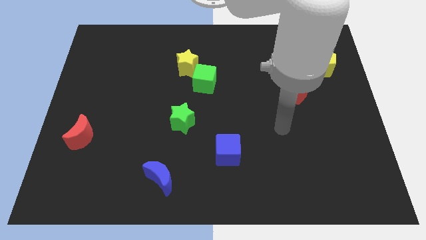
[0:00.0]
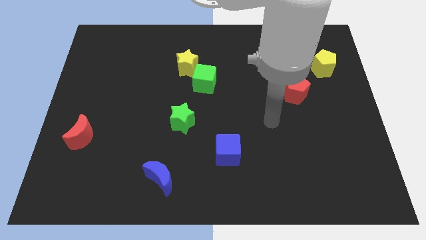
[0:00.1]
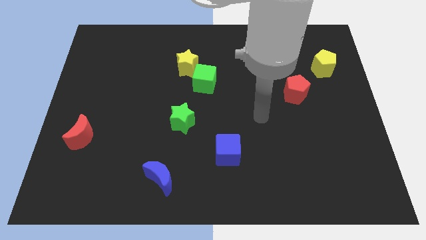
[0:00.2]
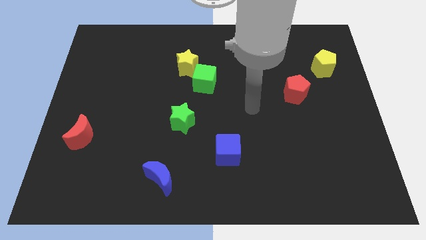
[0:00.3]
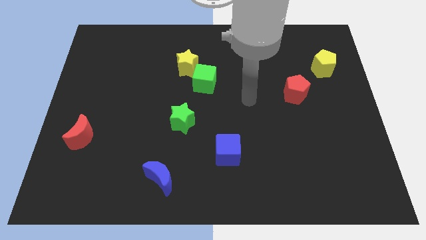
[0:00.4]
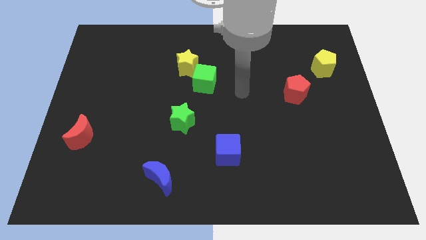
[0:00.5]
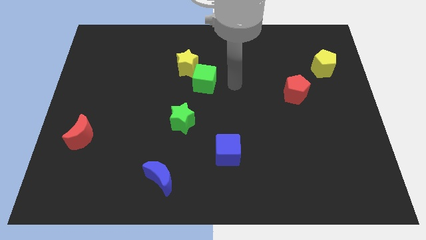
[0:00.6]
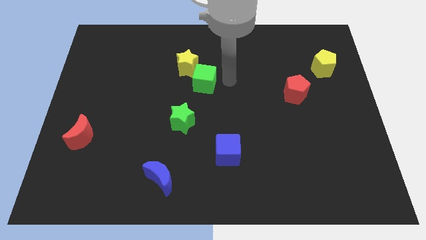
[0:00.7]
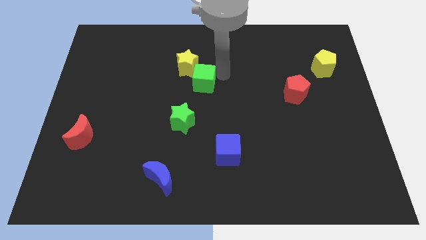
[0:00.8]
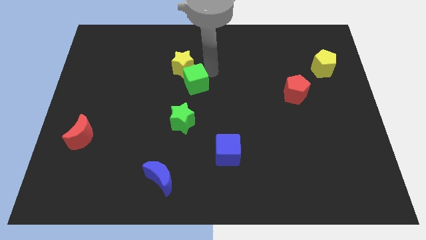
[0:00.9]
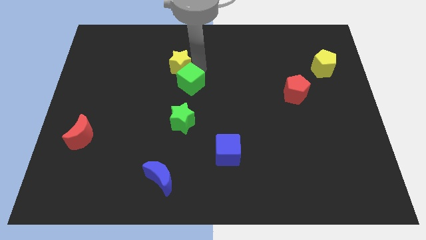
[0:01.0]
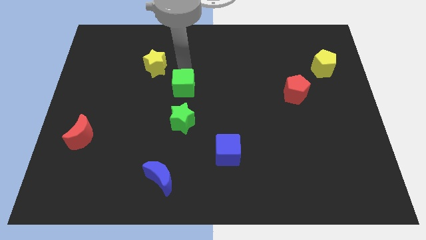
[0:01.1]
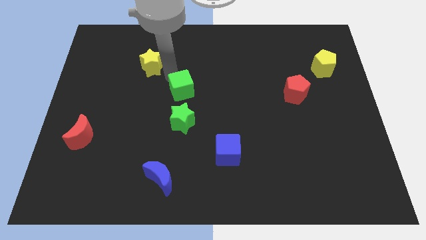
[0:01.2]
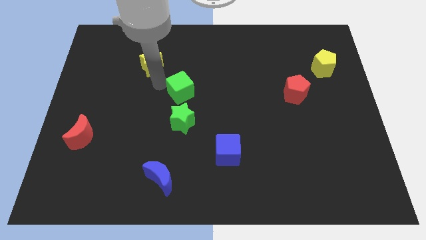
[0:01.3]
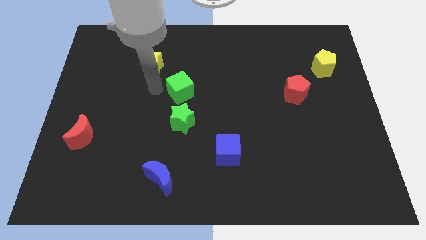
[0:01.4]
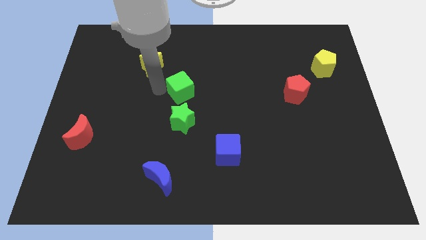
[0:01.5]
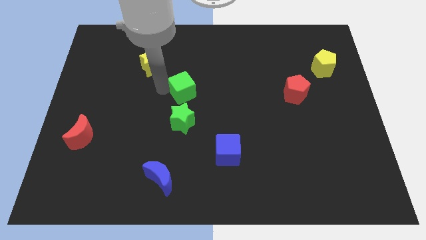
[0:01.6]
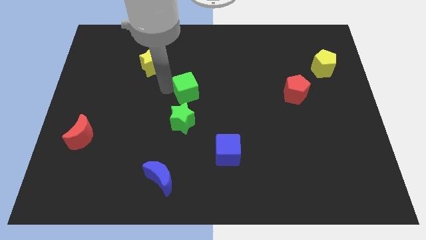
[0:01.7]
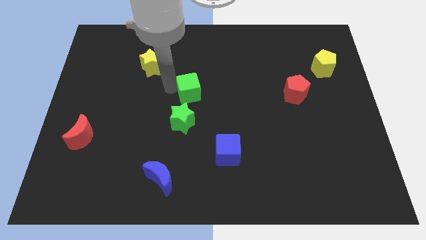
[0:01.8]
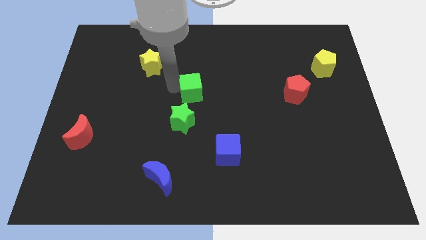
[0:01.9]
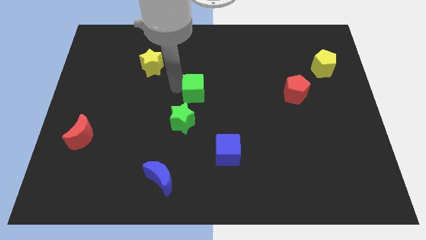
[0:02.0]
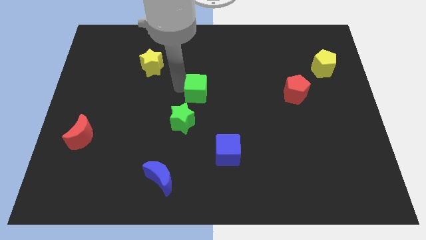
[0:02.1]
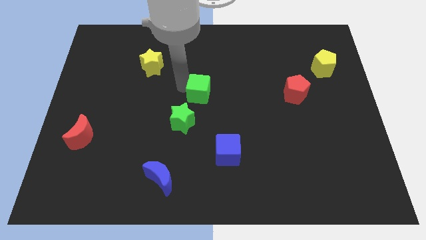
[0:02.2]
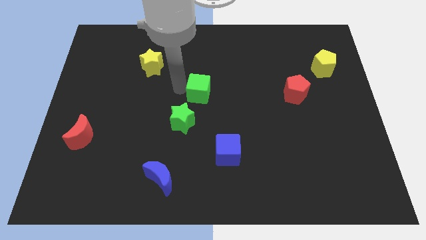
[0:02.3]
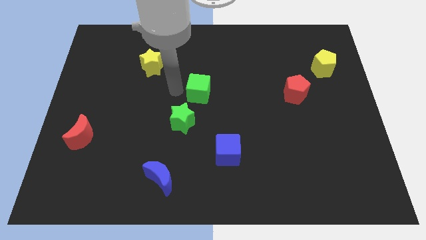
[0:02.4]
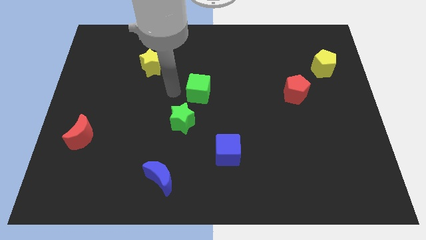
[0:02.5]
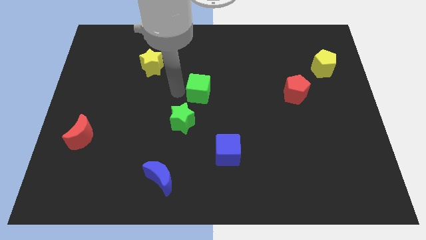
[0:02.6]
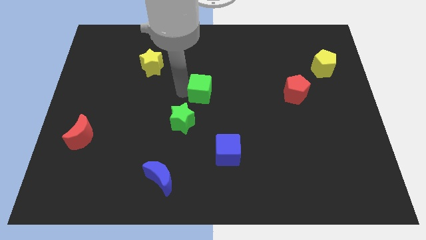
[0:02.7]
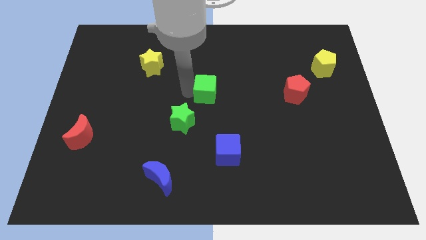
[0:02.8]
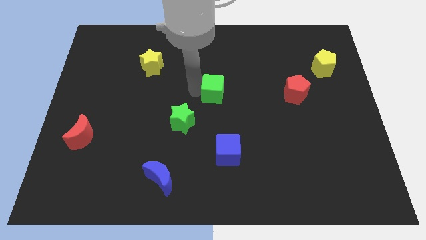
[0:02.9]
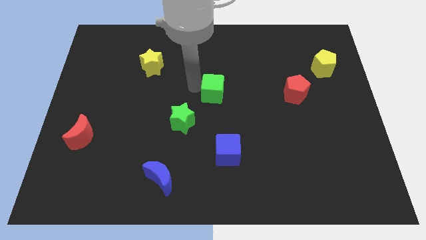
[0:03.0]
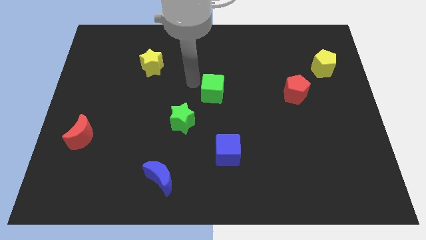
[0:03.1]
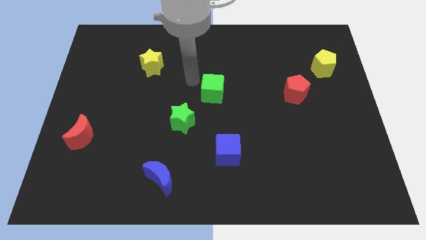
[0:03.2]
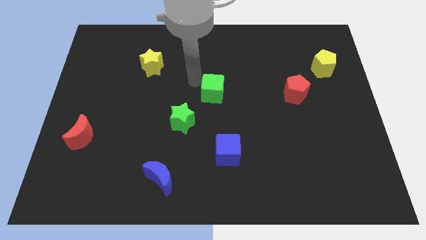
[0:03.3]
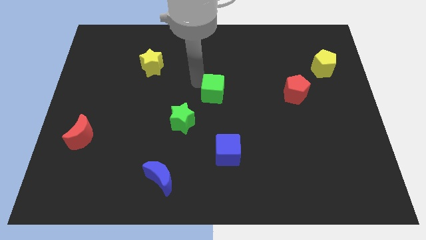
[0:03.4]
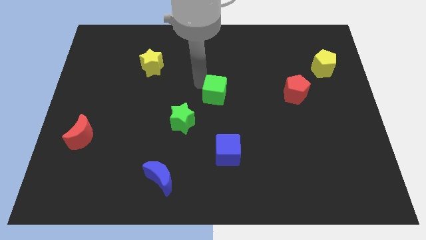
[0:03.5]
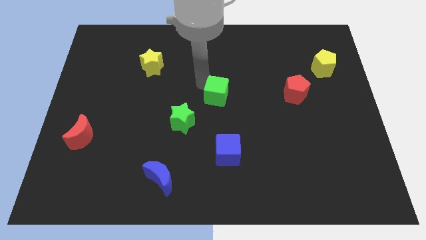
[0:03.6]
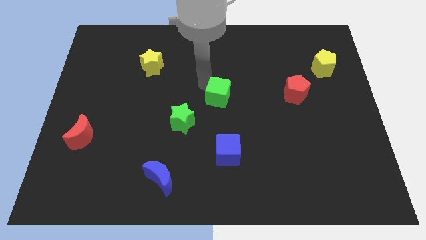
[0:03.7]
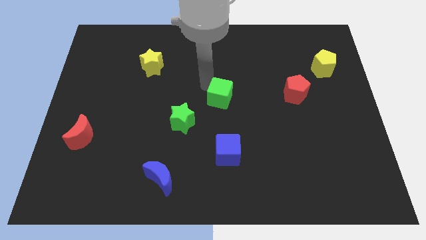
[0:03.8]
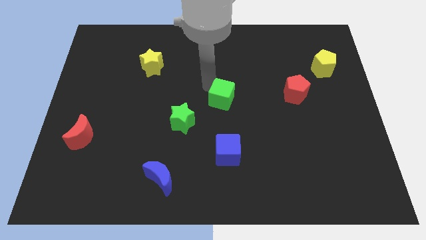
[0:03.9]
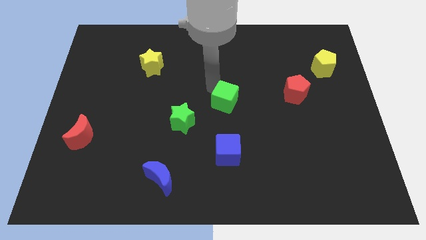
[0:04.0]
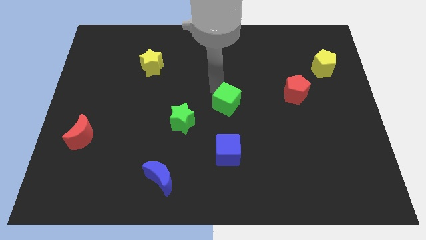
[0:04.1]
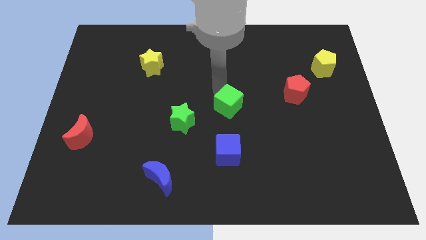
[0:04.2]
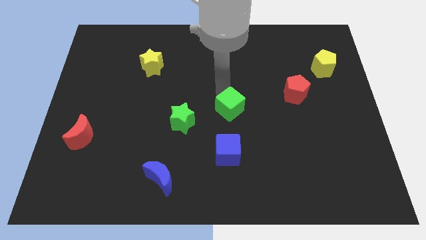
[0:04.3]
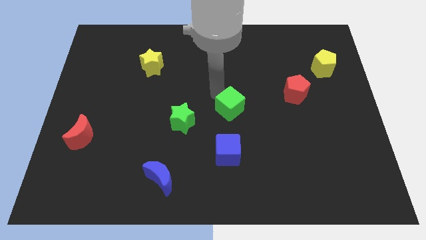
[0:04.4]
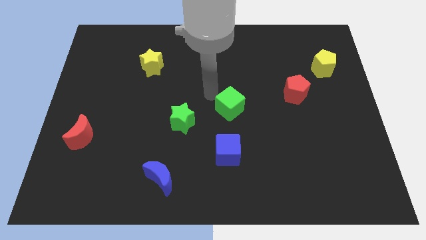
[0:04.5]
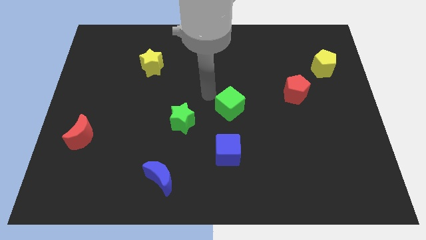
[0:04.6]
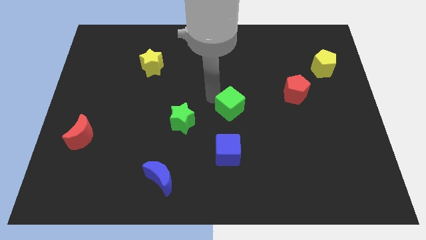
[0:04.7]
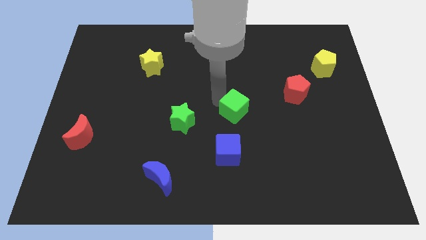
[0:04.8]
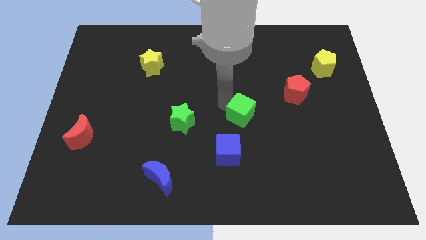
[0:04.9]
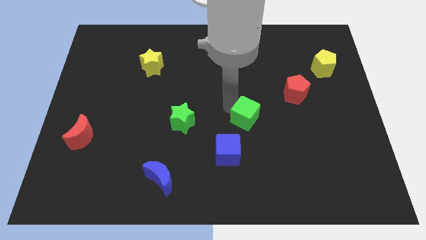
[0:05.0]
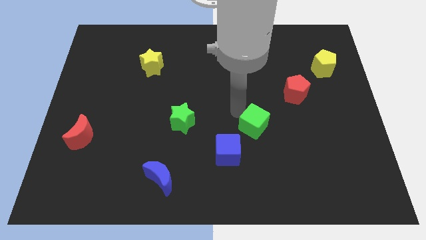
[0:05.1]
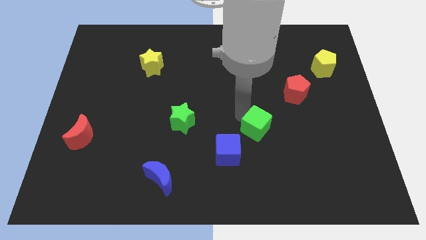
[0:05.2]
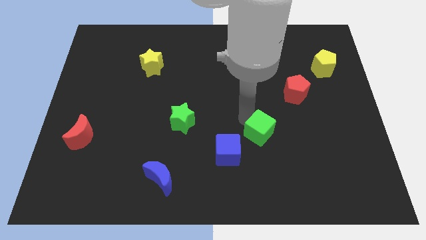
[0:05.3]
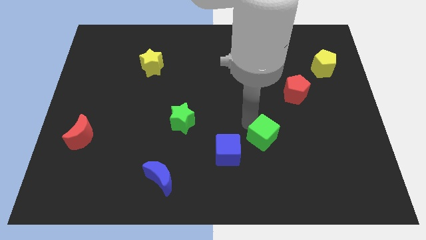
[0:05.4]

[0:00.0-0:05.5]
slide the green cube down and then to the right

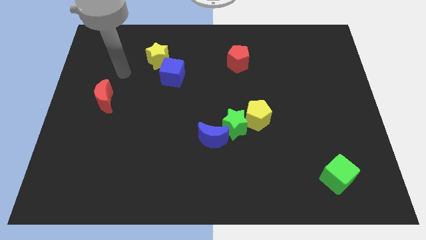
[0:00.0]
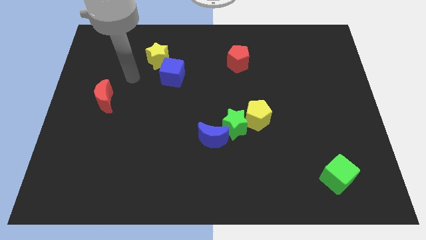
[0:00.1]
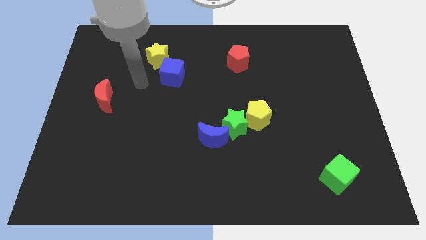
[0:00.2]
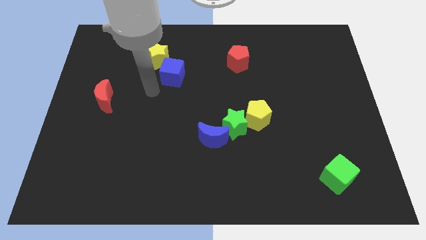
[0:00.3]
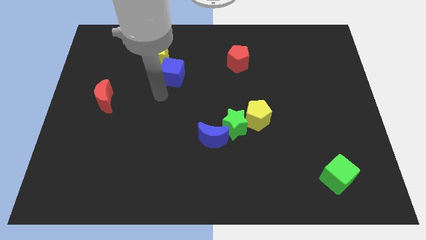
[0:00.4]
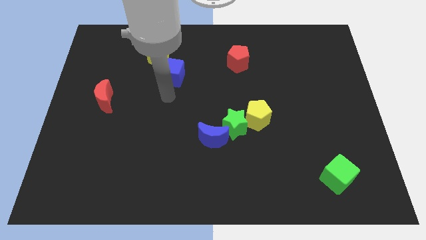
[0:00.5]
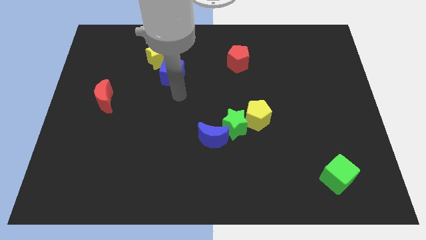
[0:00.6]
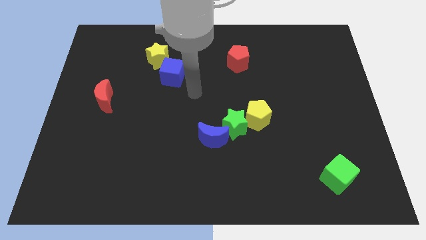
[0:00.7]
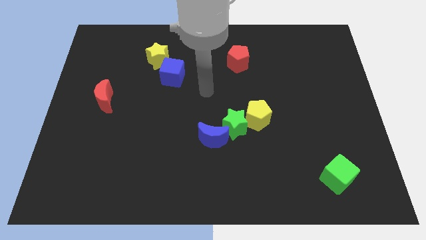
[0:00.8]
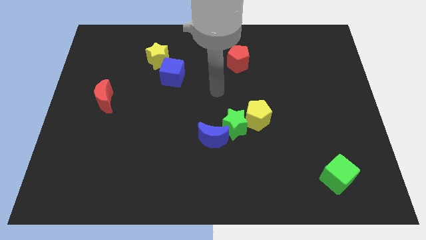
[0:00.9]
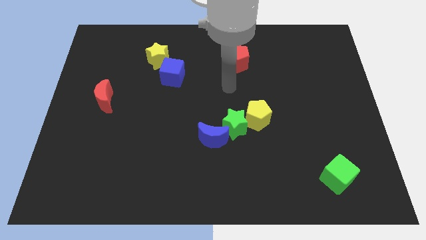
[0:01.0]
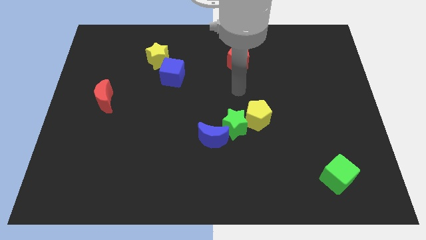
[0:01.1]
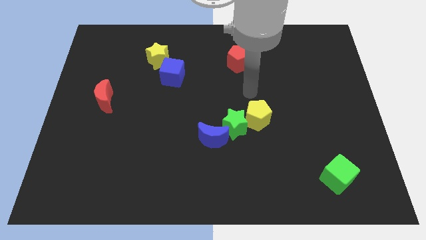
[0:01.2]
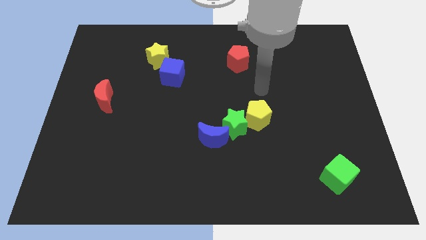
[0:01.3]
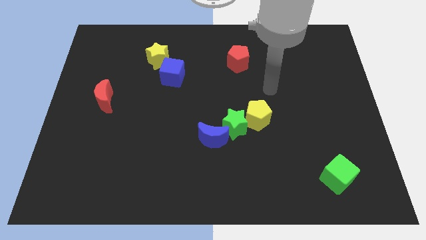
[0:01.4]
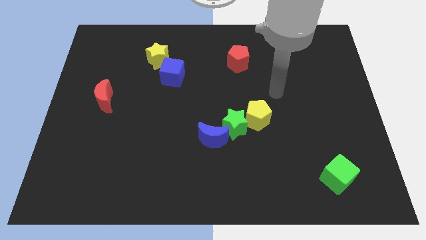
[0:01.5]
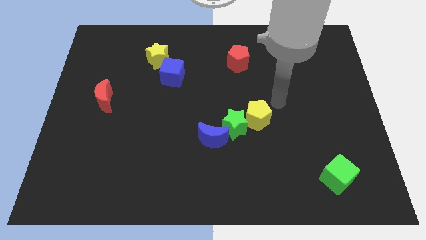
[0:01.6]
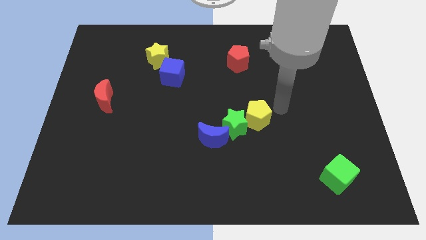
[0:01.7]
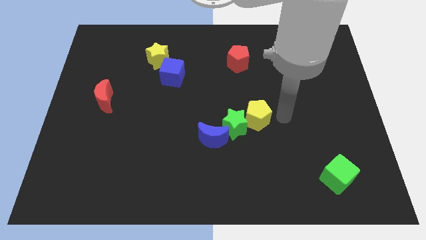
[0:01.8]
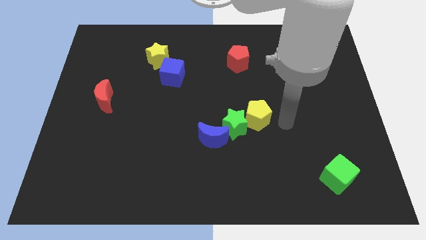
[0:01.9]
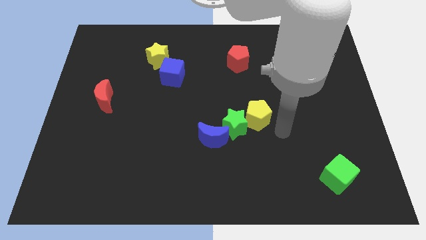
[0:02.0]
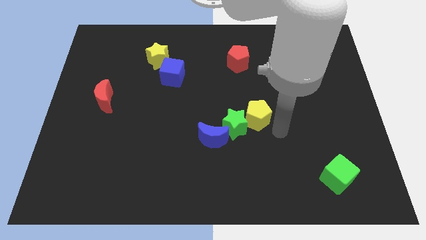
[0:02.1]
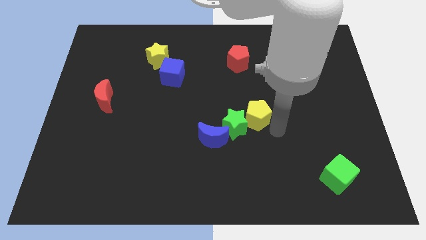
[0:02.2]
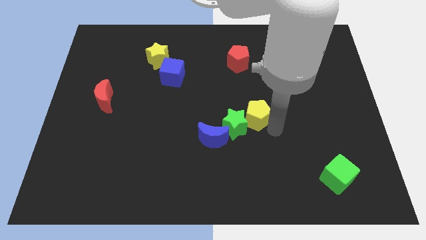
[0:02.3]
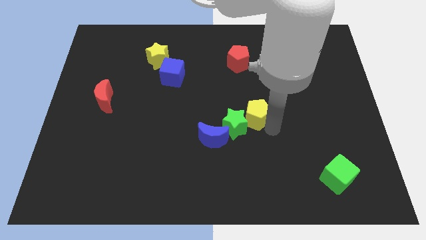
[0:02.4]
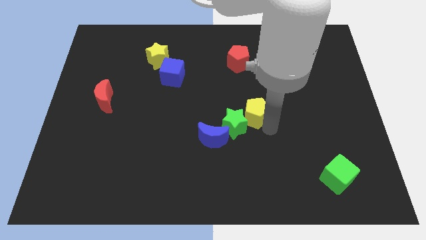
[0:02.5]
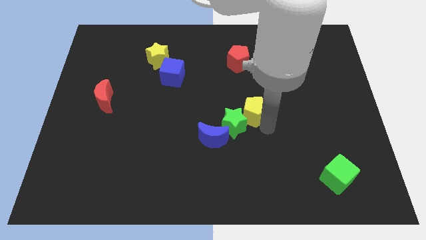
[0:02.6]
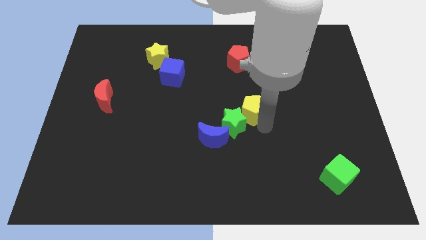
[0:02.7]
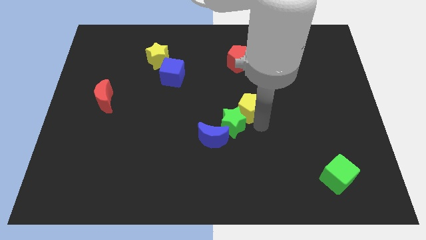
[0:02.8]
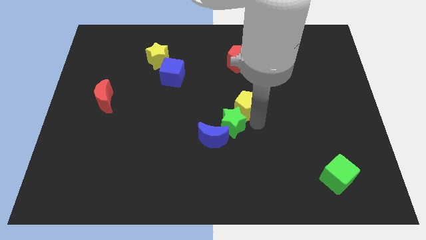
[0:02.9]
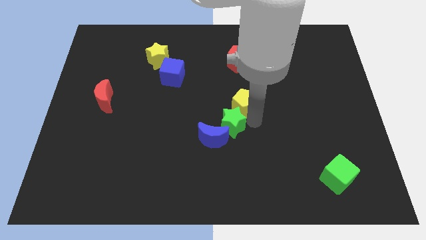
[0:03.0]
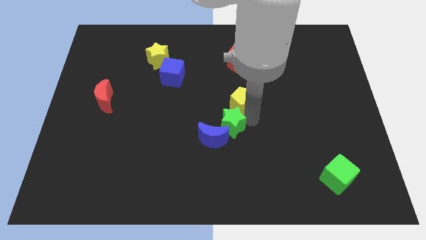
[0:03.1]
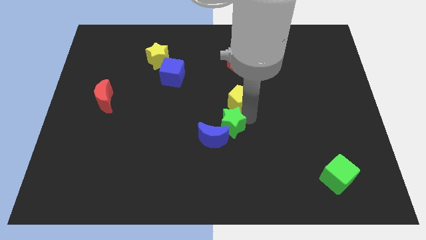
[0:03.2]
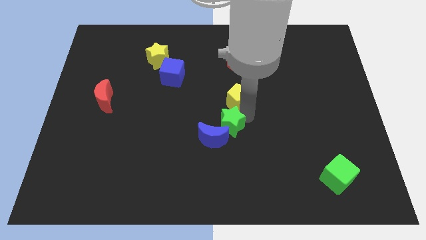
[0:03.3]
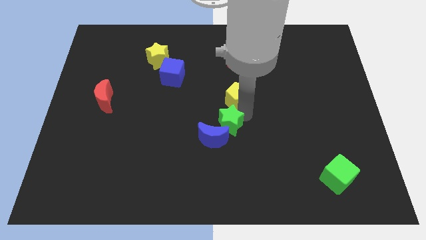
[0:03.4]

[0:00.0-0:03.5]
push the yellow pentagon slightly upwards and left diagonally
